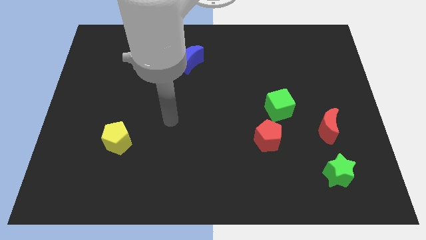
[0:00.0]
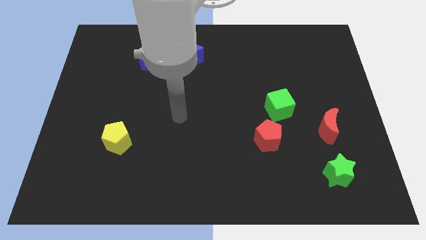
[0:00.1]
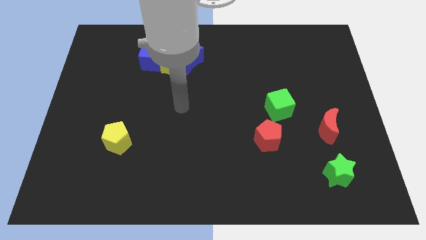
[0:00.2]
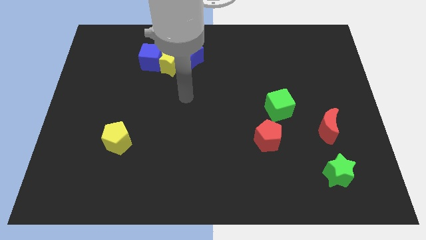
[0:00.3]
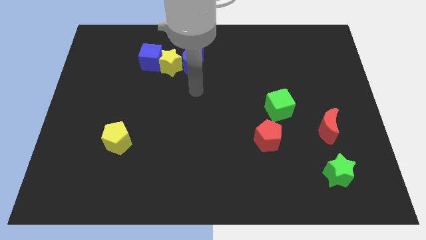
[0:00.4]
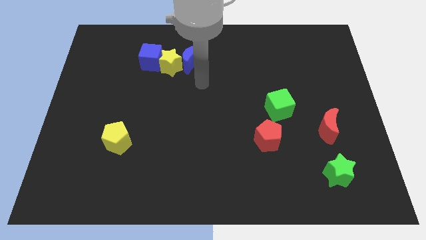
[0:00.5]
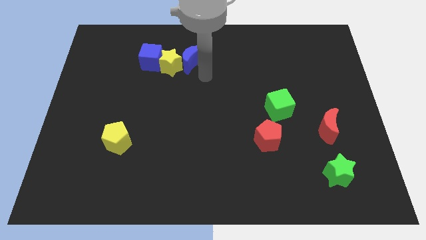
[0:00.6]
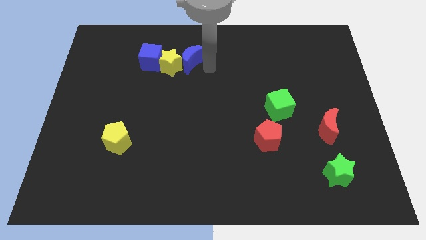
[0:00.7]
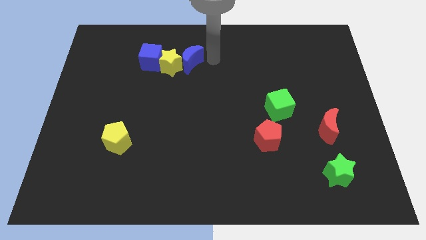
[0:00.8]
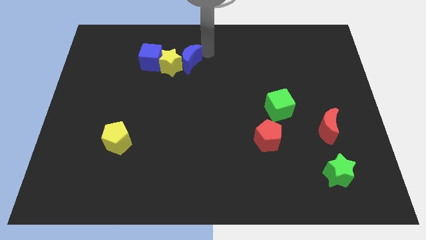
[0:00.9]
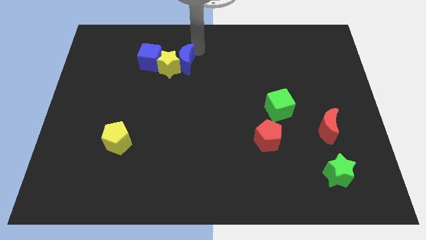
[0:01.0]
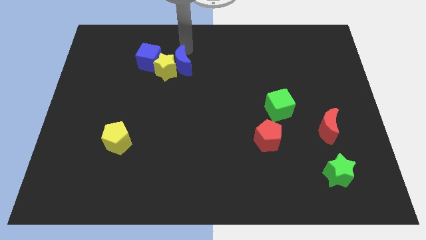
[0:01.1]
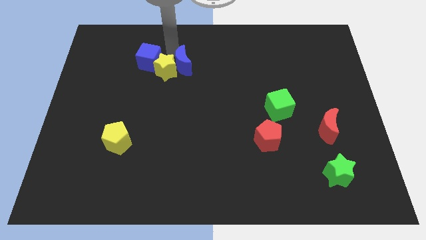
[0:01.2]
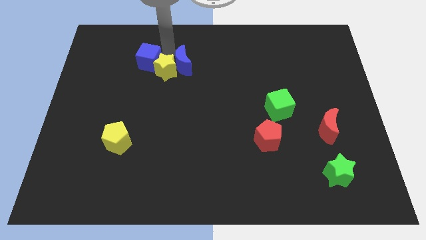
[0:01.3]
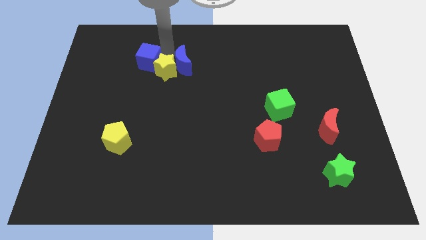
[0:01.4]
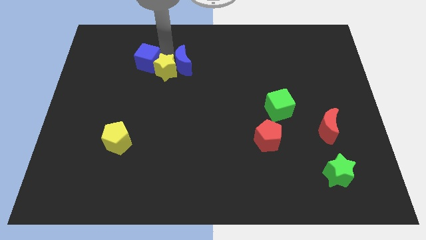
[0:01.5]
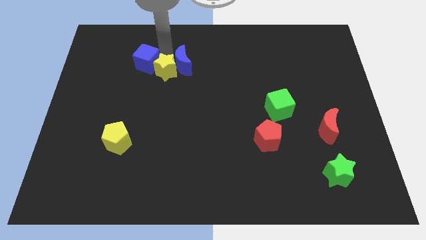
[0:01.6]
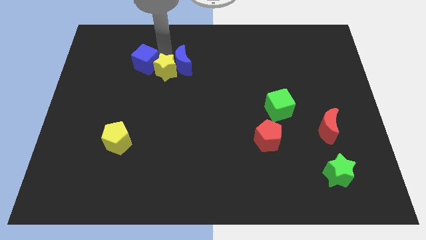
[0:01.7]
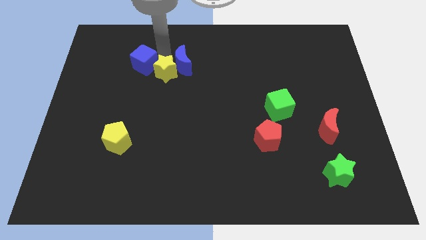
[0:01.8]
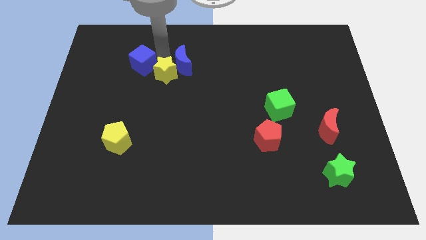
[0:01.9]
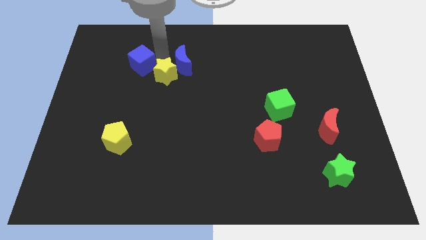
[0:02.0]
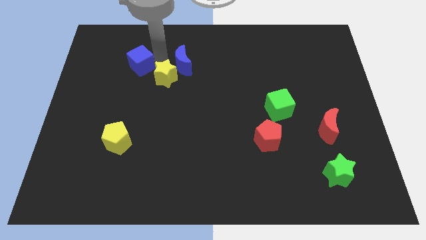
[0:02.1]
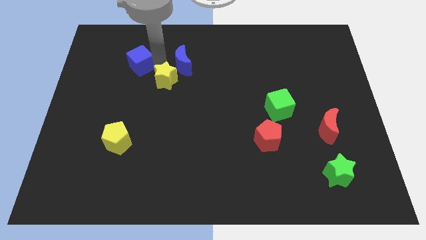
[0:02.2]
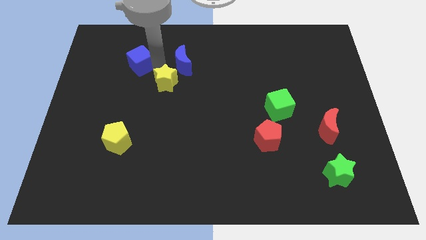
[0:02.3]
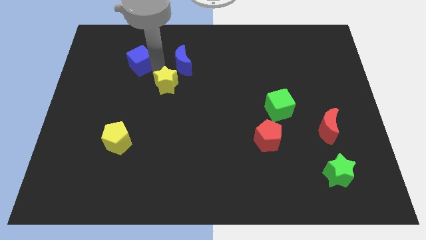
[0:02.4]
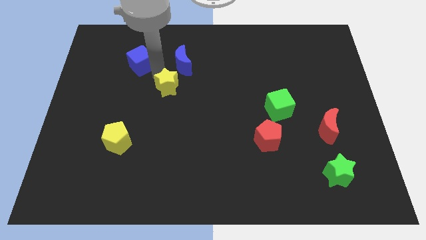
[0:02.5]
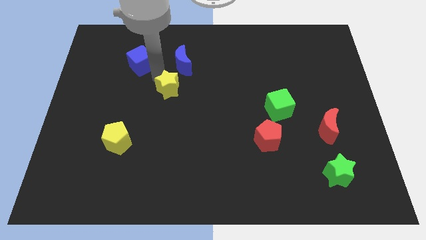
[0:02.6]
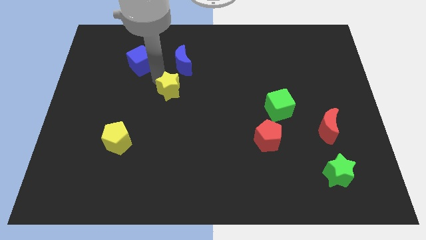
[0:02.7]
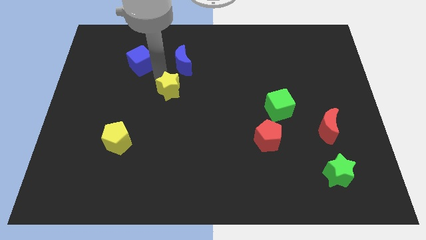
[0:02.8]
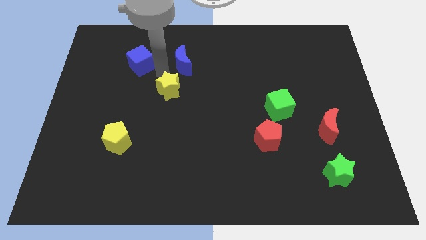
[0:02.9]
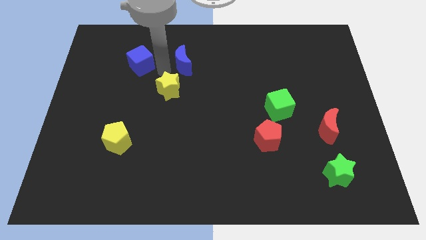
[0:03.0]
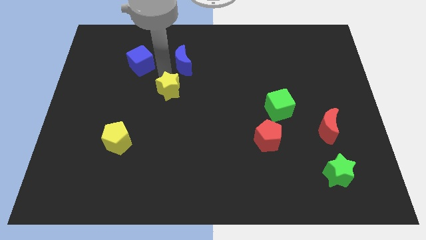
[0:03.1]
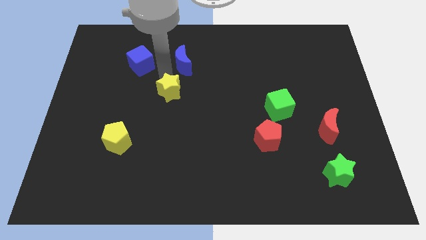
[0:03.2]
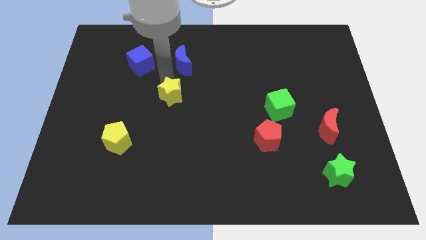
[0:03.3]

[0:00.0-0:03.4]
move the yellow star away from the blue moon and blue cube

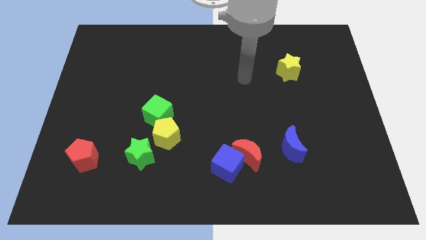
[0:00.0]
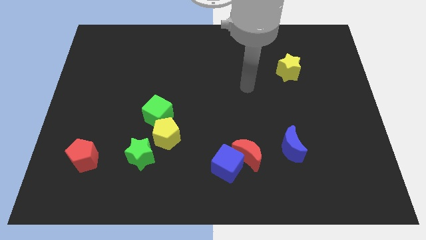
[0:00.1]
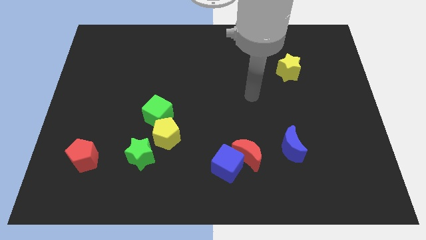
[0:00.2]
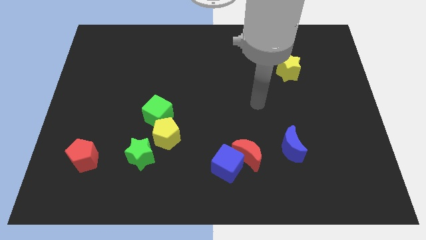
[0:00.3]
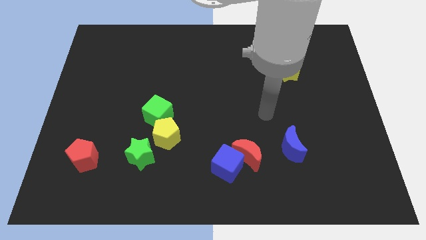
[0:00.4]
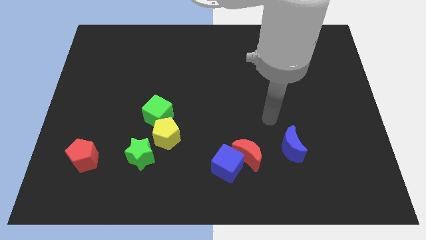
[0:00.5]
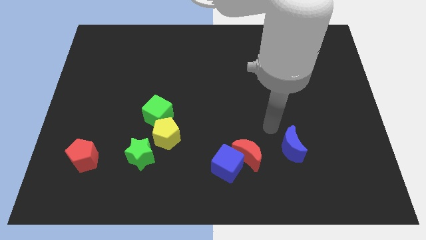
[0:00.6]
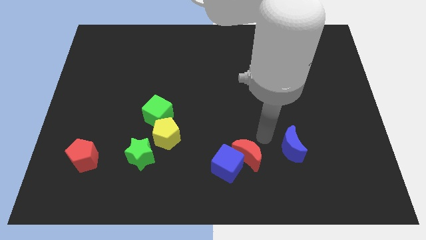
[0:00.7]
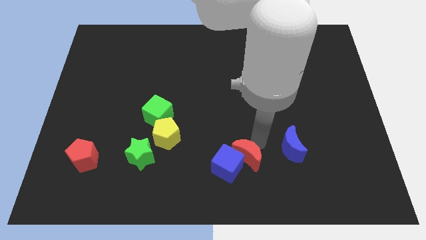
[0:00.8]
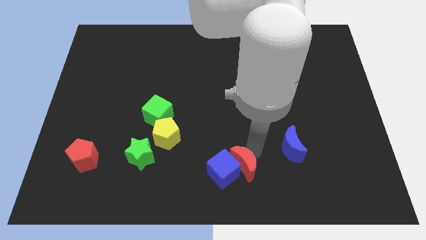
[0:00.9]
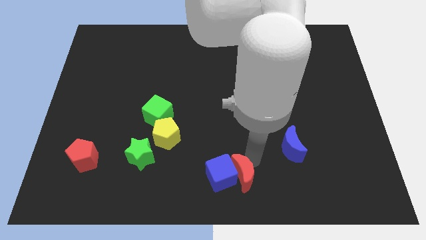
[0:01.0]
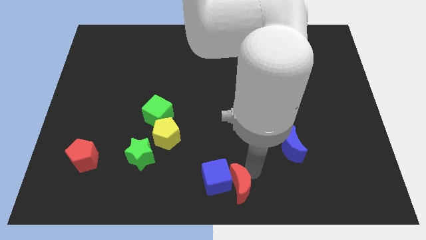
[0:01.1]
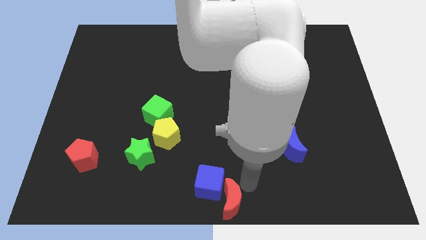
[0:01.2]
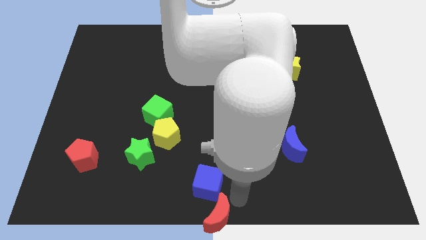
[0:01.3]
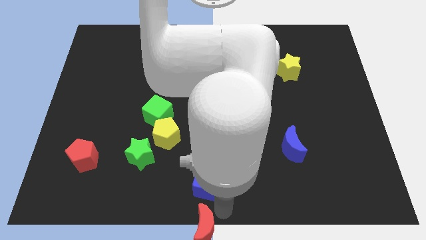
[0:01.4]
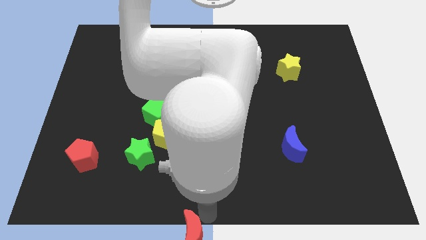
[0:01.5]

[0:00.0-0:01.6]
move the blue cube away from the red moon

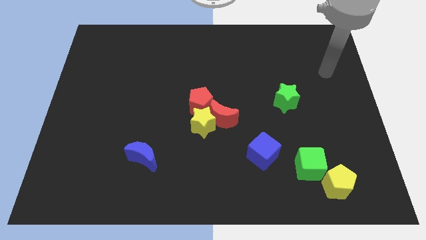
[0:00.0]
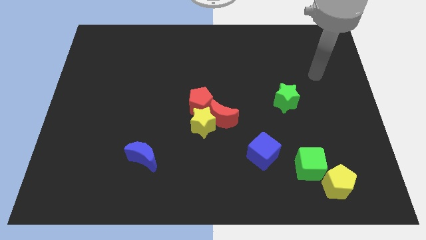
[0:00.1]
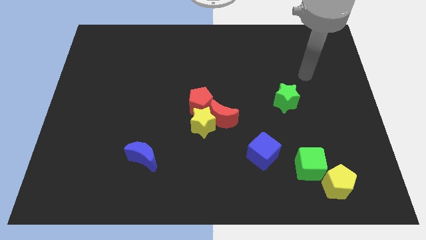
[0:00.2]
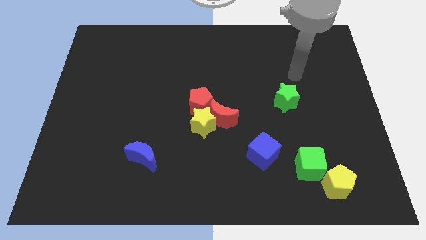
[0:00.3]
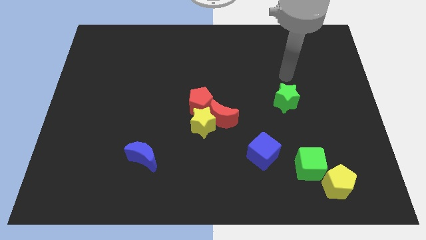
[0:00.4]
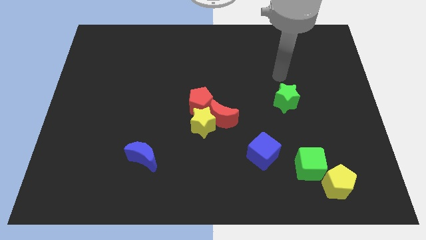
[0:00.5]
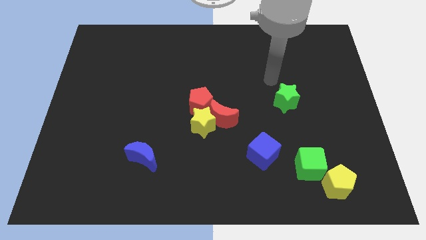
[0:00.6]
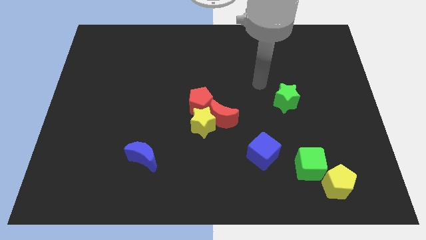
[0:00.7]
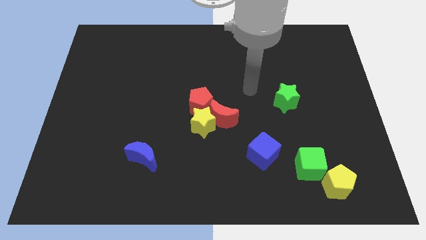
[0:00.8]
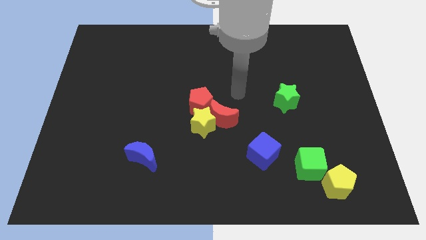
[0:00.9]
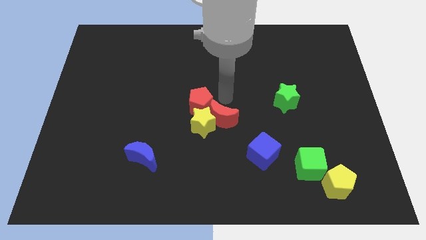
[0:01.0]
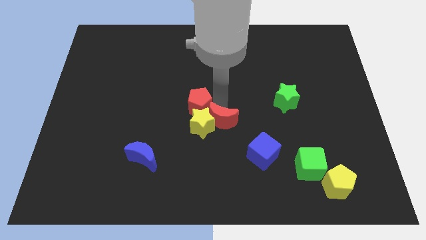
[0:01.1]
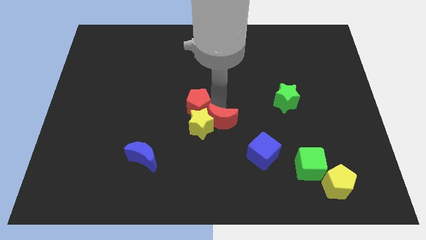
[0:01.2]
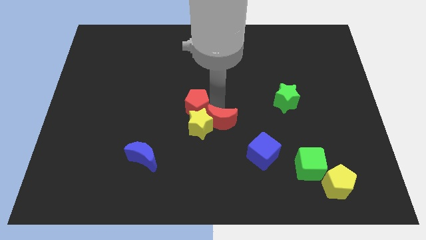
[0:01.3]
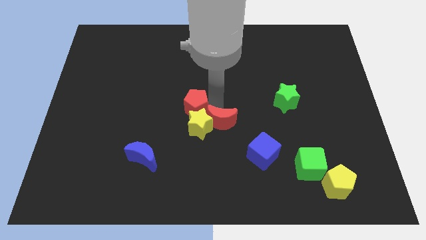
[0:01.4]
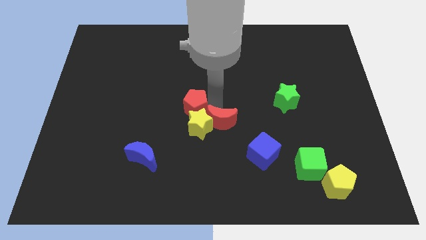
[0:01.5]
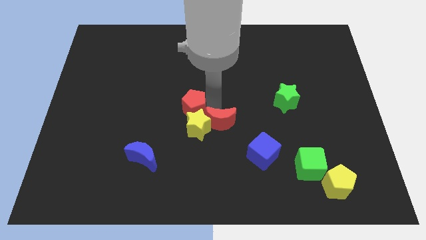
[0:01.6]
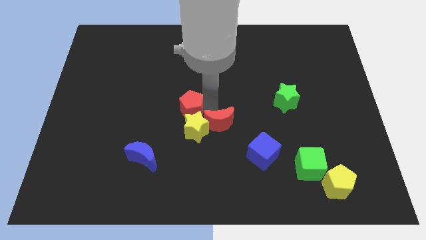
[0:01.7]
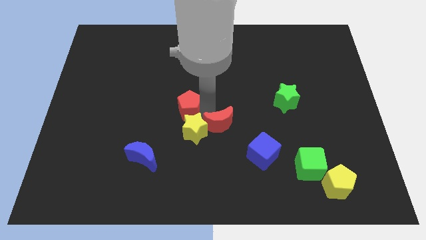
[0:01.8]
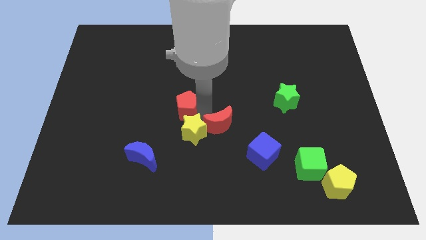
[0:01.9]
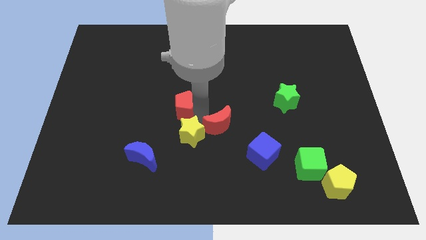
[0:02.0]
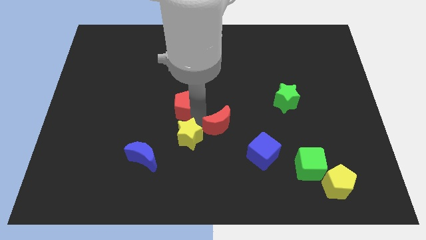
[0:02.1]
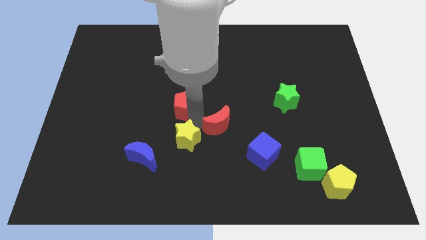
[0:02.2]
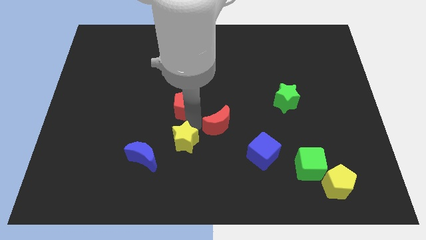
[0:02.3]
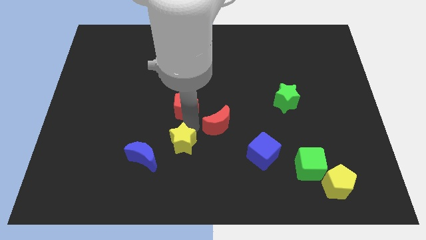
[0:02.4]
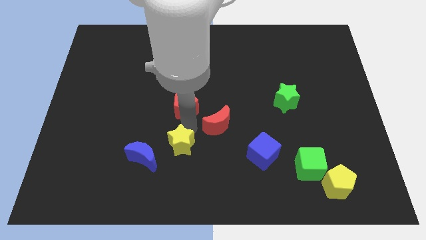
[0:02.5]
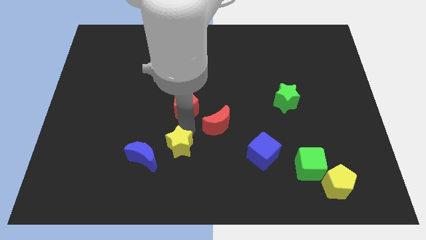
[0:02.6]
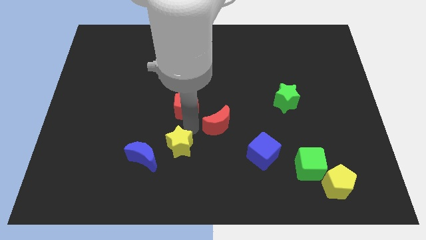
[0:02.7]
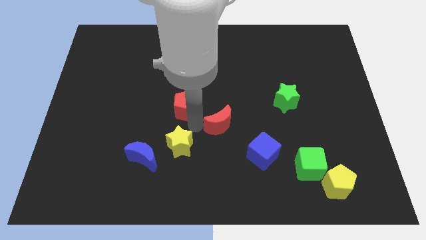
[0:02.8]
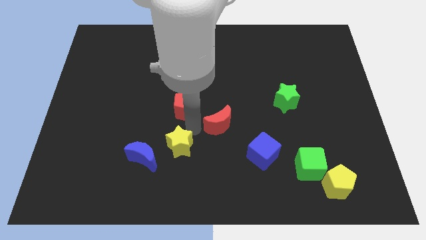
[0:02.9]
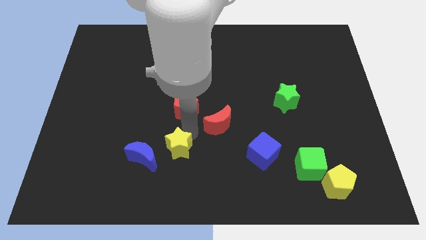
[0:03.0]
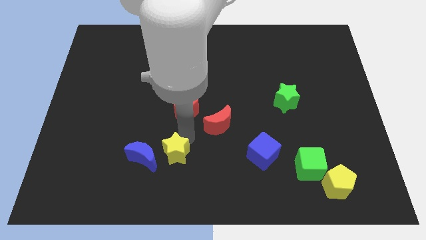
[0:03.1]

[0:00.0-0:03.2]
pull the yellow star apart from the red moon and red pentagon

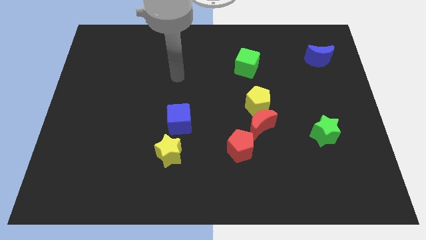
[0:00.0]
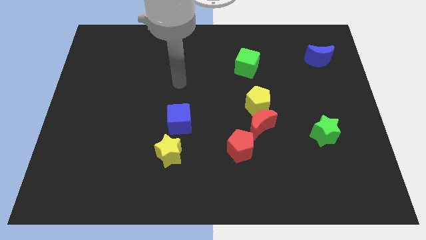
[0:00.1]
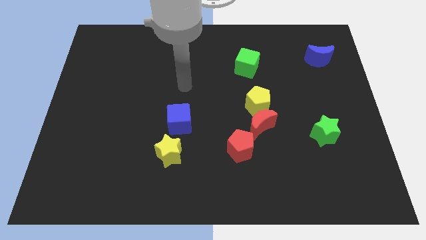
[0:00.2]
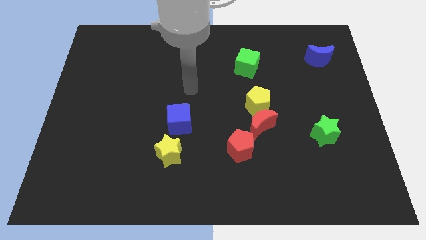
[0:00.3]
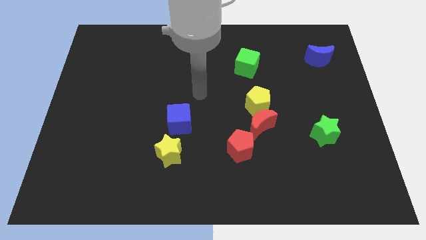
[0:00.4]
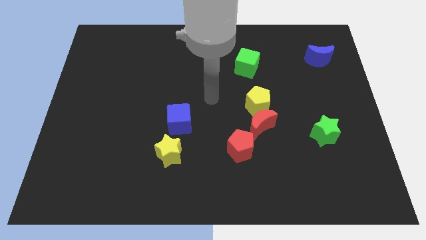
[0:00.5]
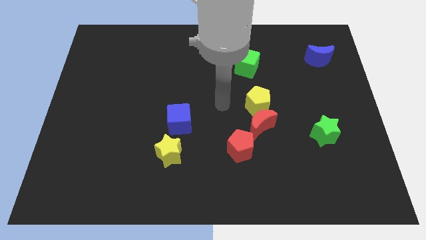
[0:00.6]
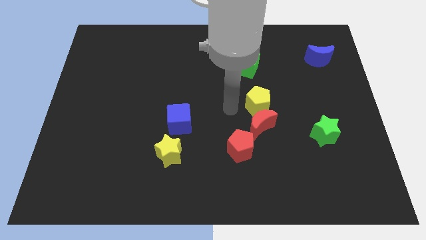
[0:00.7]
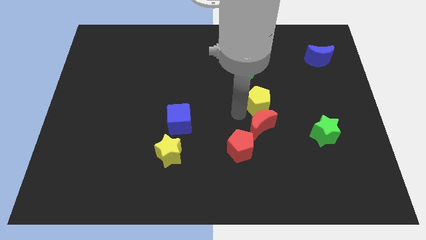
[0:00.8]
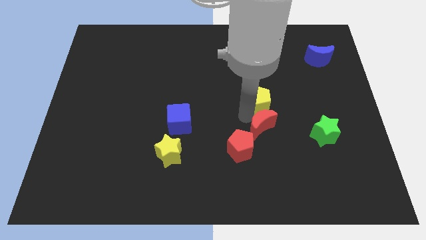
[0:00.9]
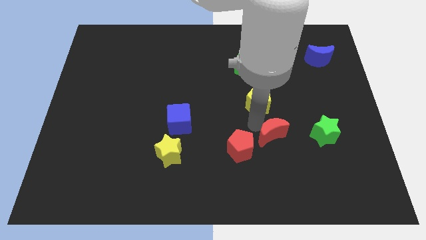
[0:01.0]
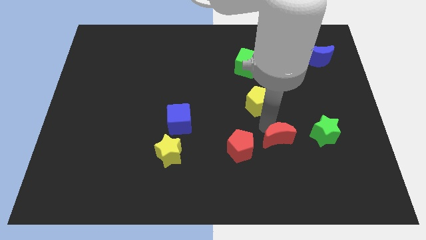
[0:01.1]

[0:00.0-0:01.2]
pull the yellow pentagon apart from the red moon
